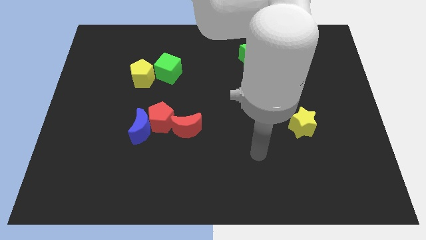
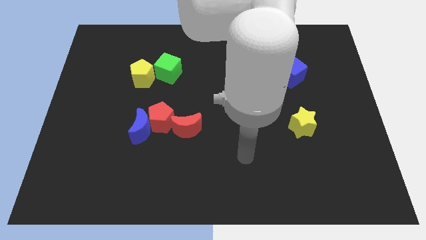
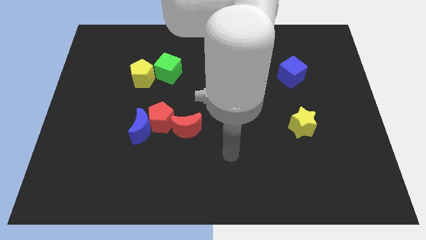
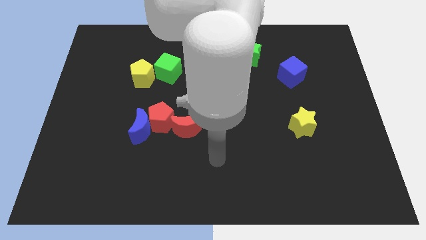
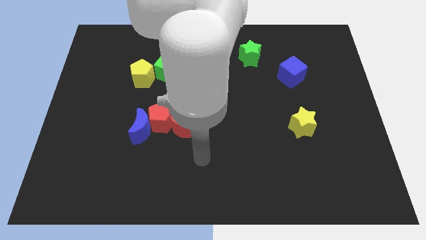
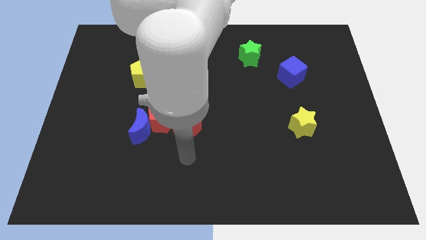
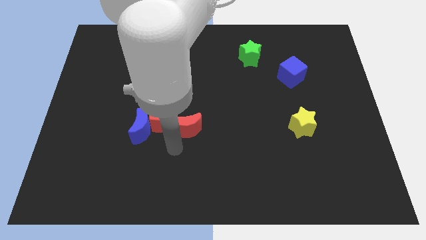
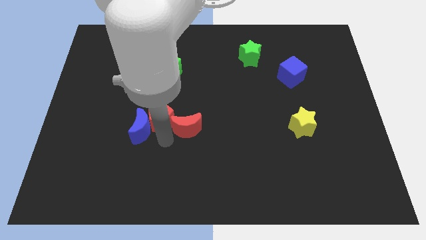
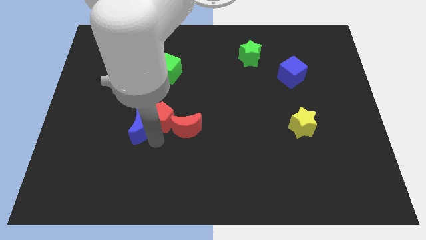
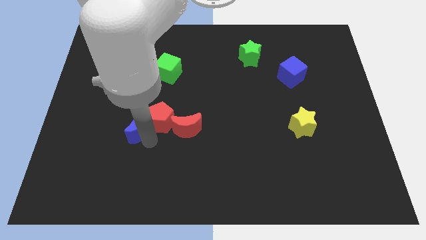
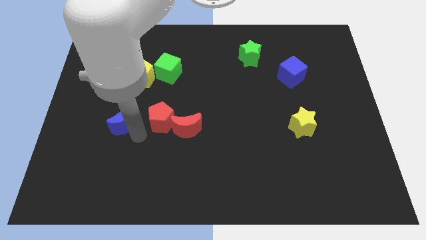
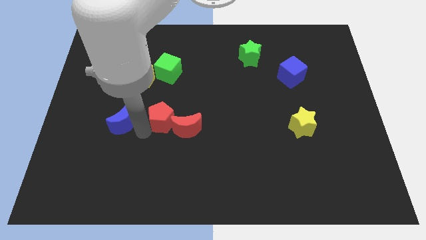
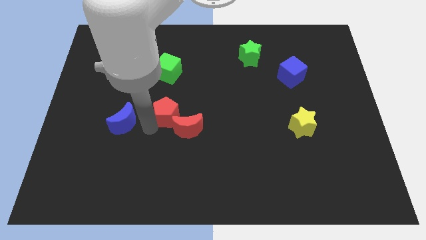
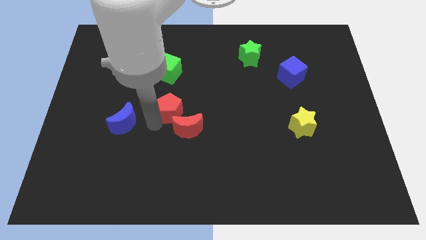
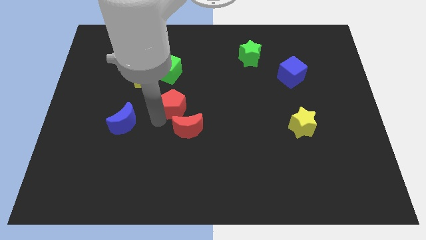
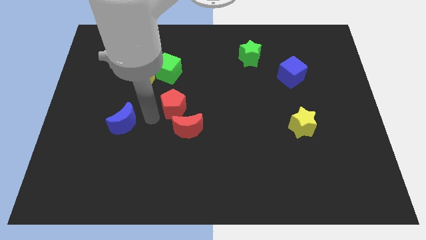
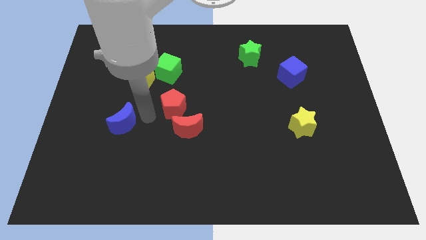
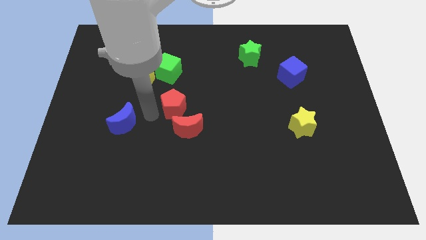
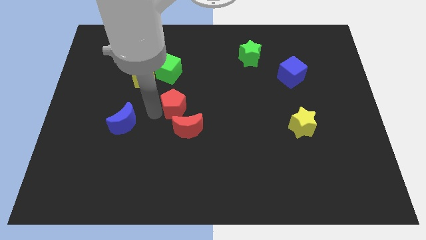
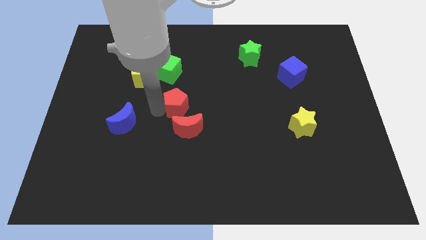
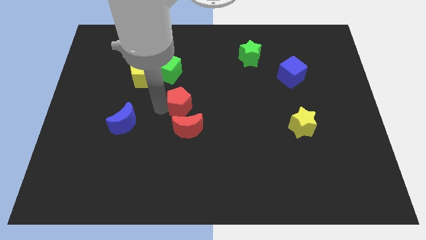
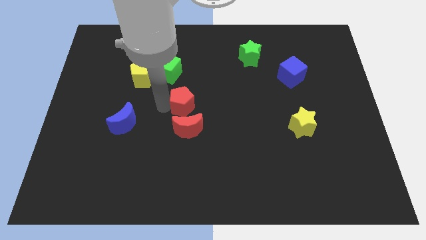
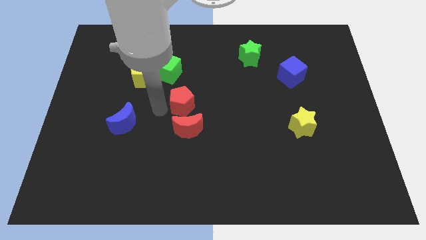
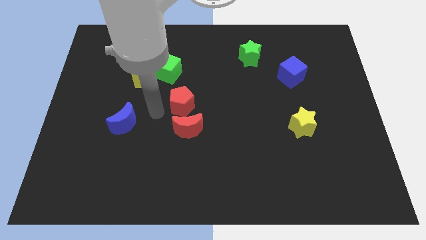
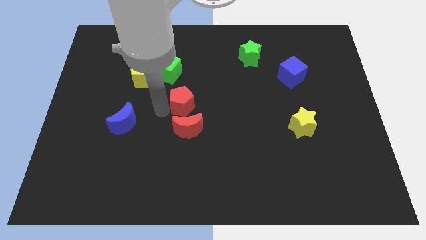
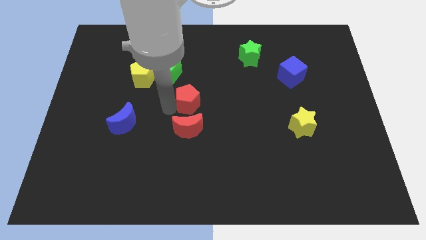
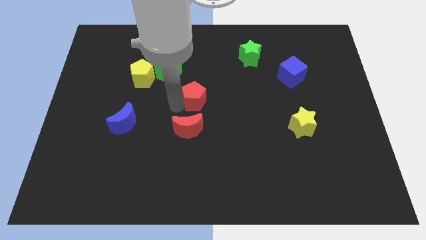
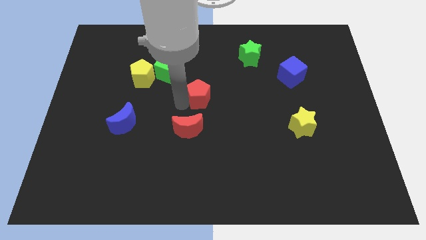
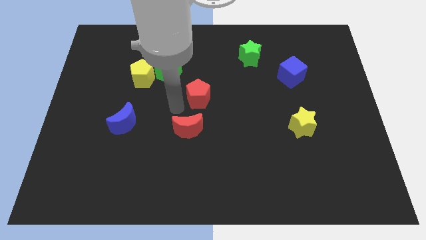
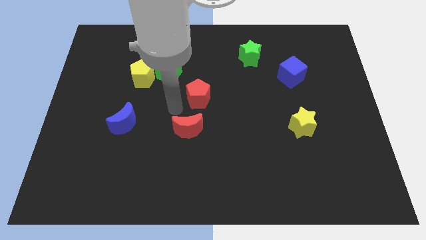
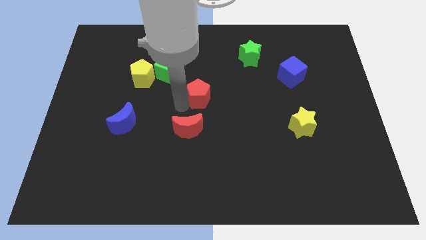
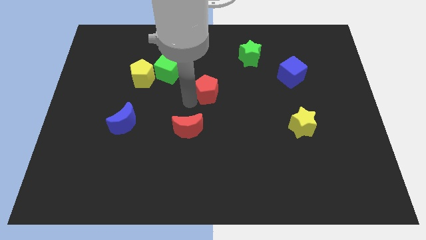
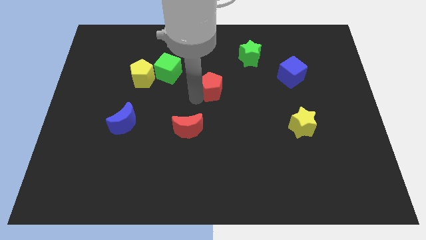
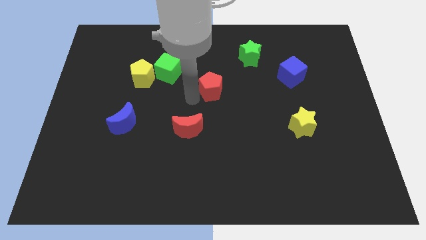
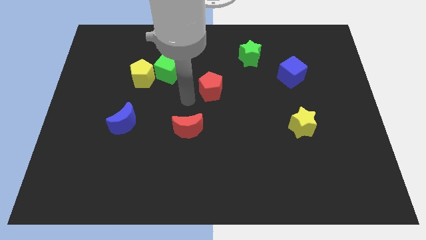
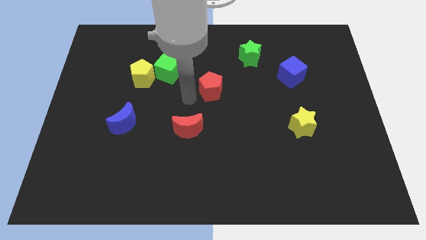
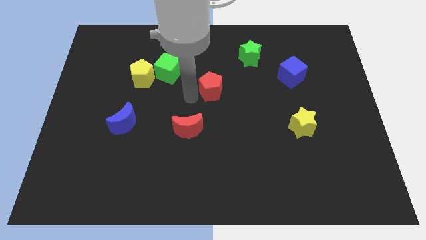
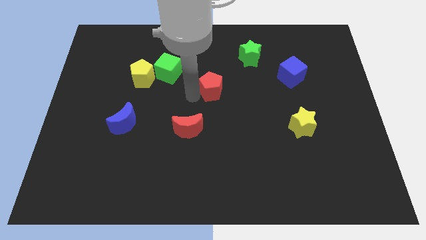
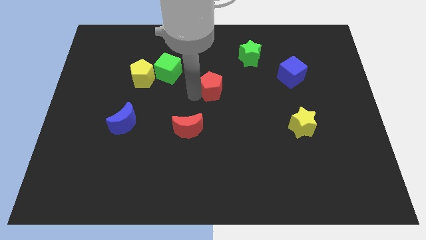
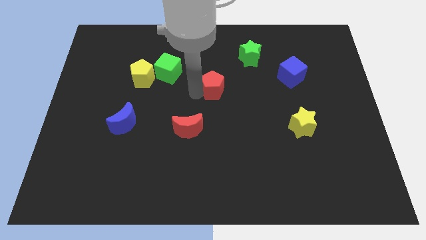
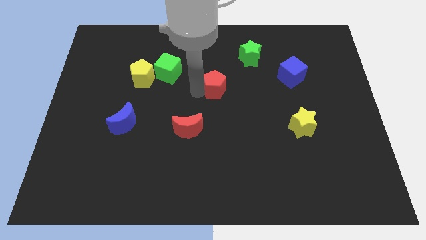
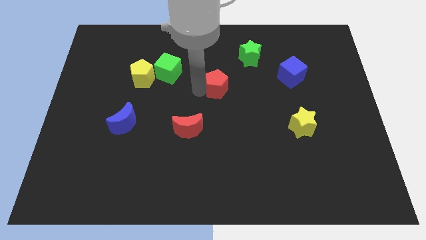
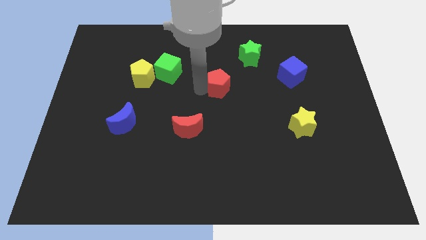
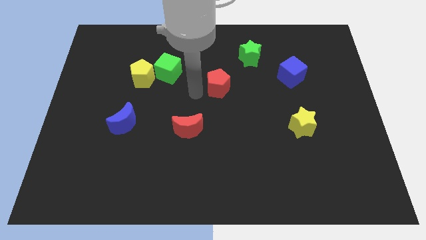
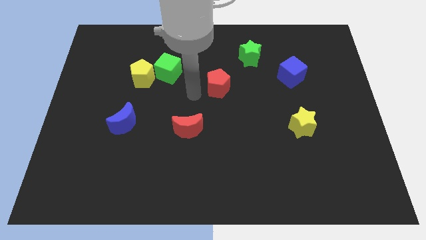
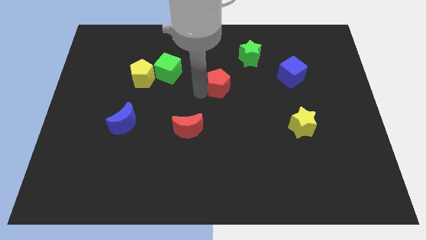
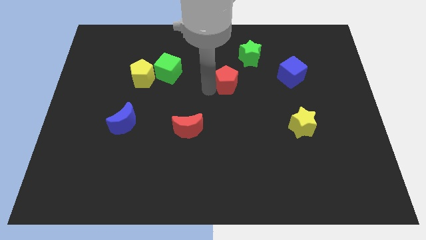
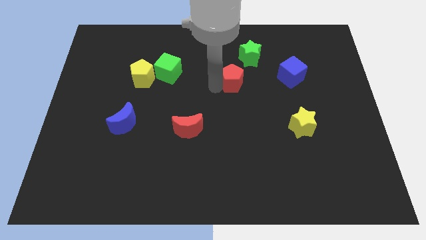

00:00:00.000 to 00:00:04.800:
slide the red pentagon just left of the blue cube

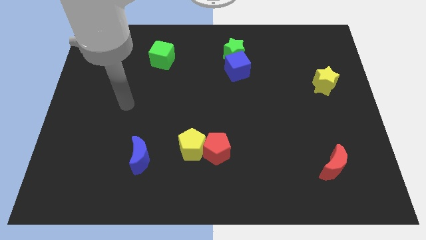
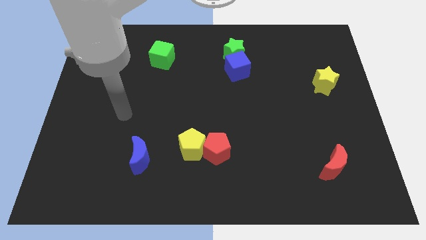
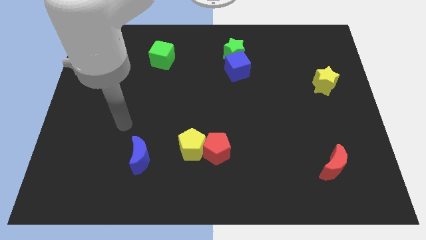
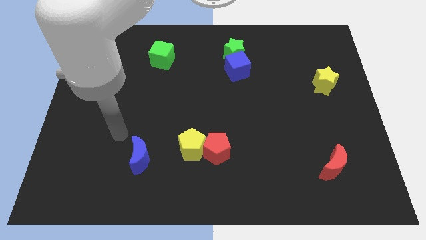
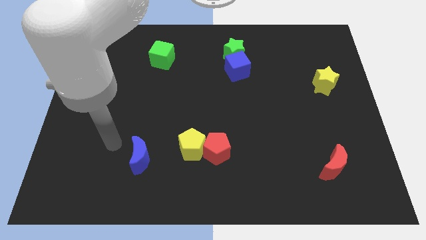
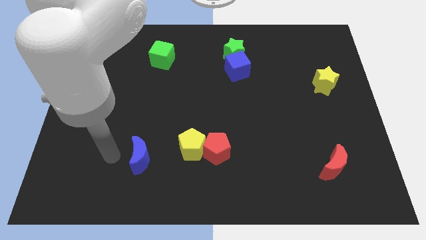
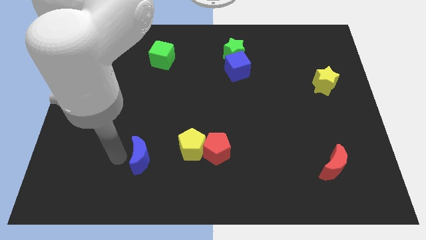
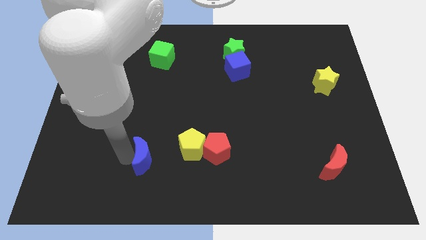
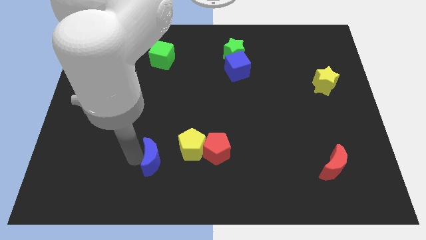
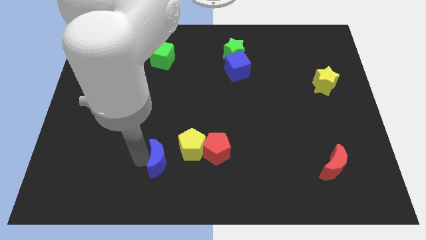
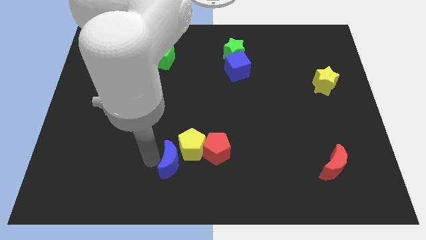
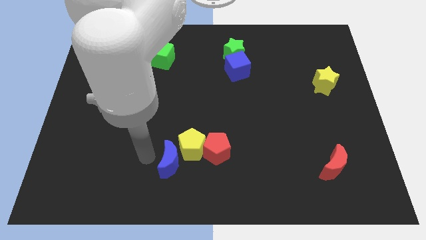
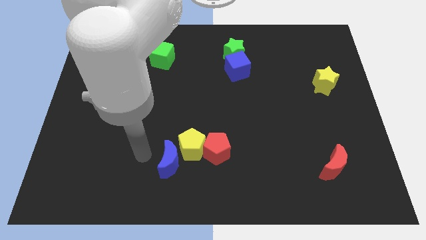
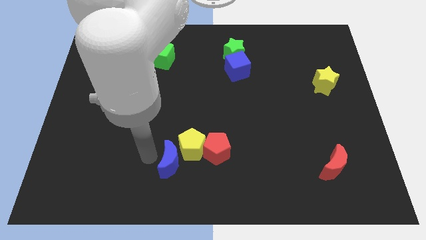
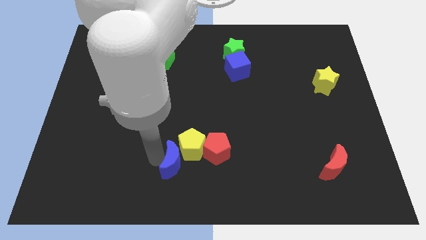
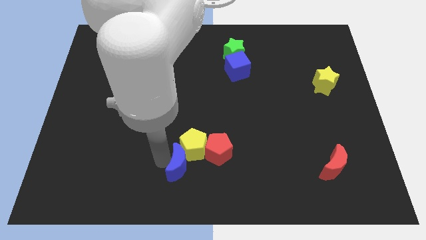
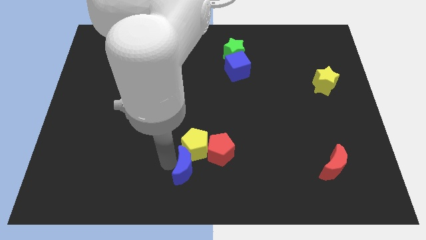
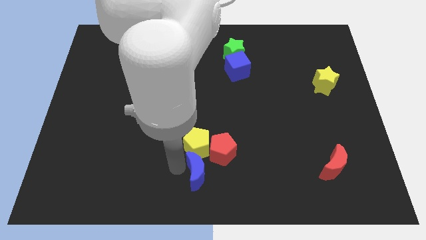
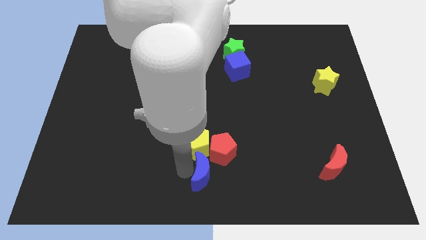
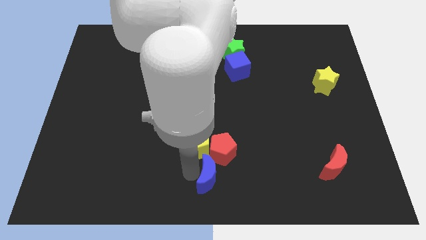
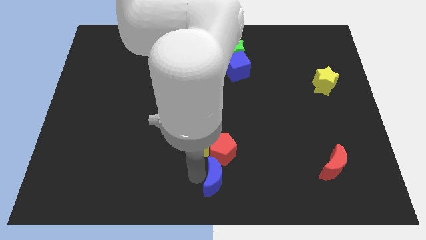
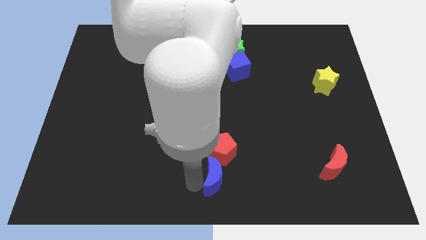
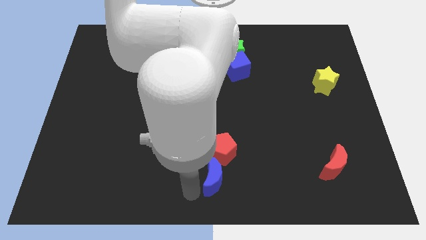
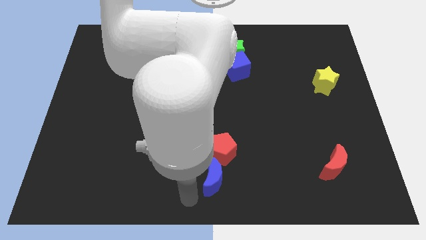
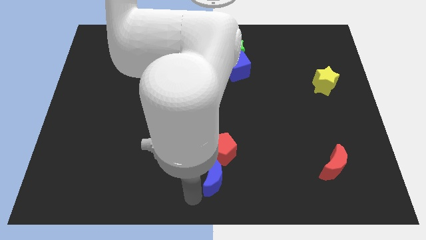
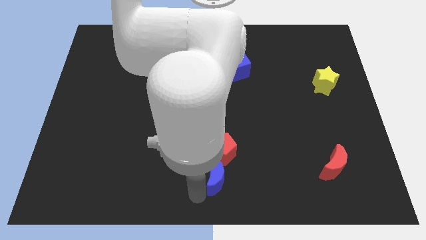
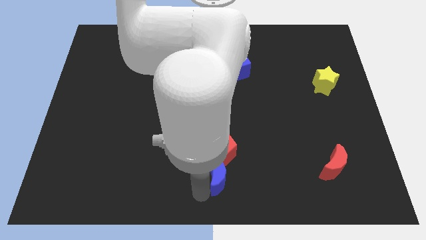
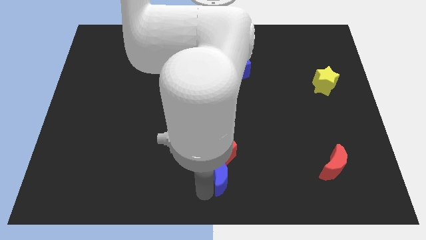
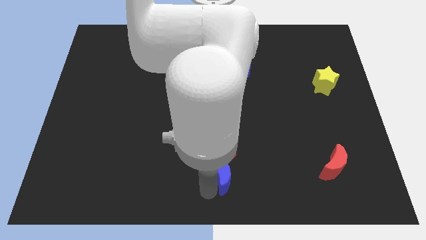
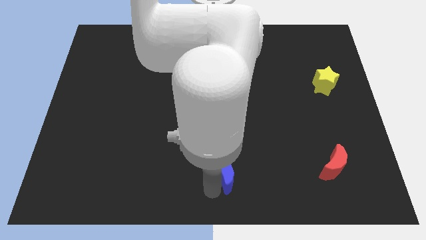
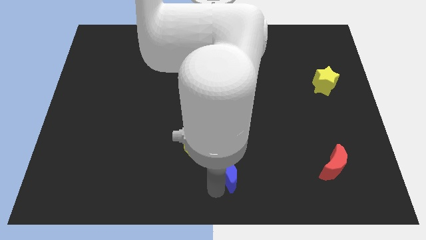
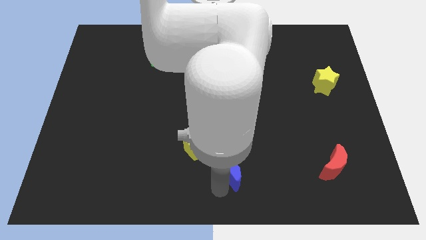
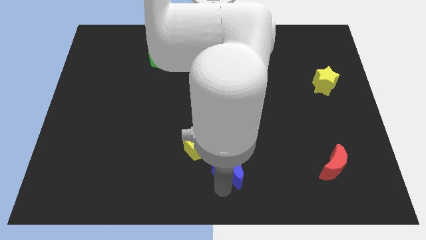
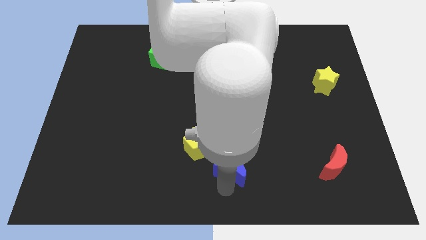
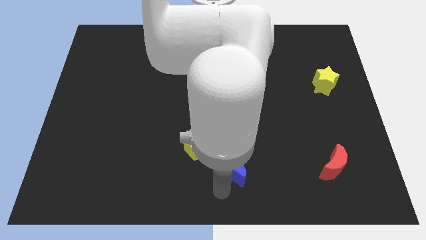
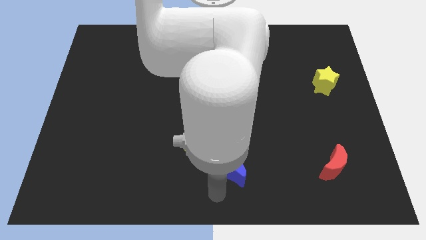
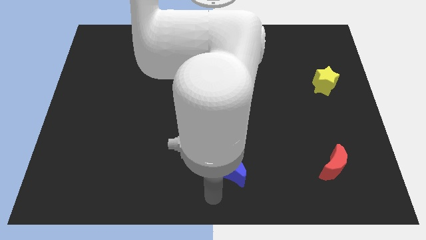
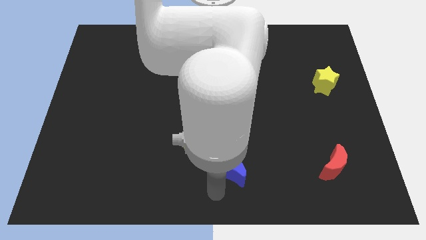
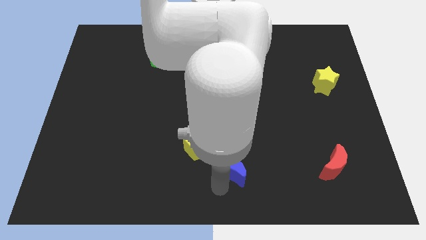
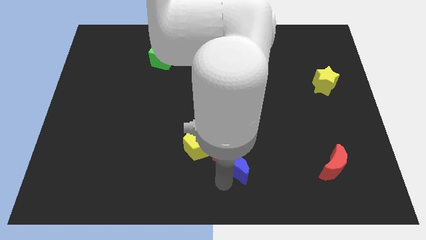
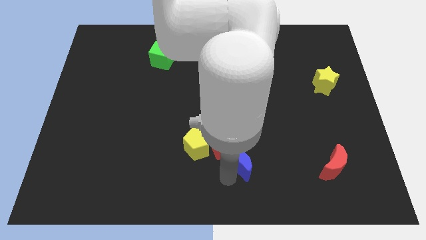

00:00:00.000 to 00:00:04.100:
move the blue moon to the right of the red pentagon
